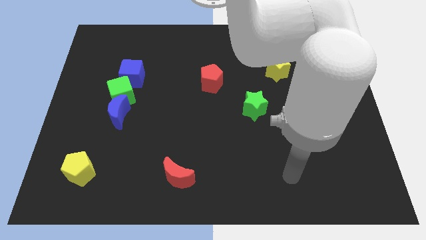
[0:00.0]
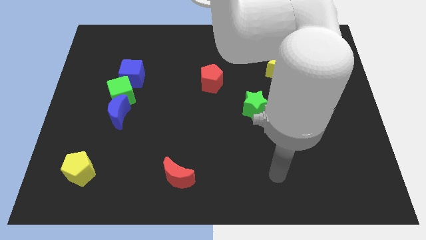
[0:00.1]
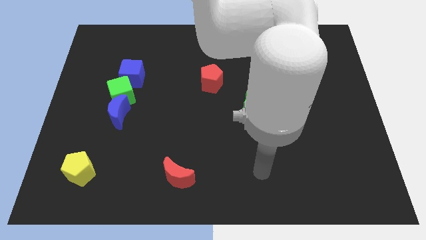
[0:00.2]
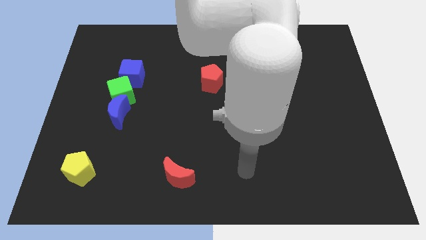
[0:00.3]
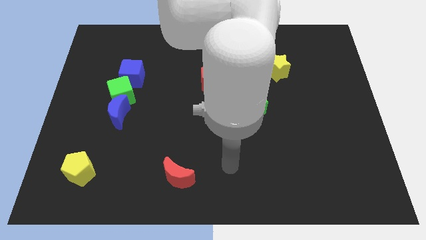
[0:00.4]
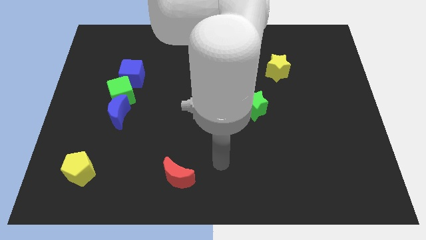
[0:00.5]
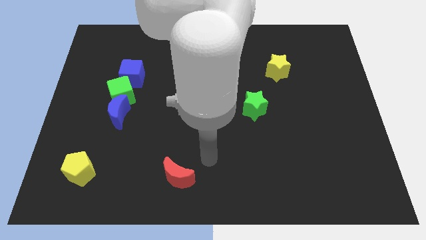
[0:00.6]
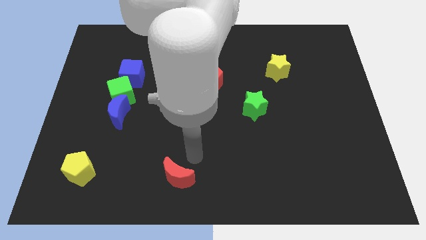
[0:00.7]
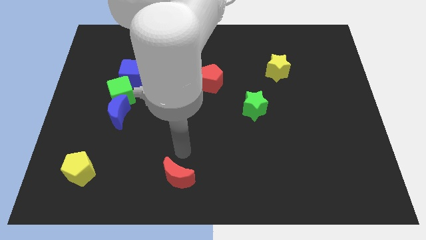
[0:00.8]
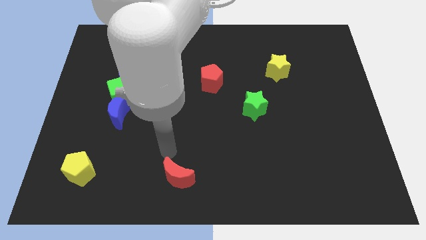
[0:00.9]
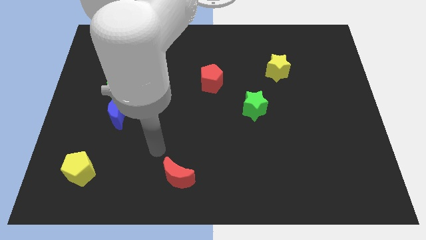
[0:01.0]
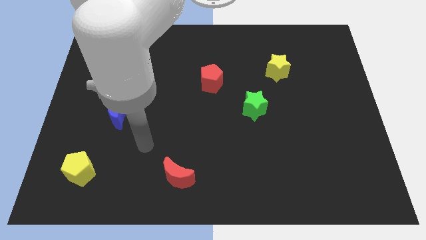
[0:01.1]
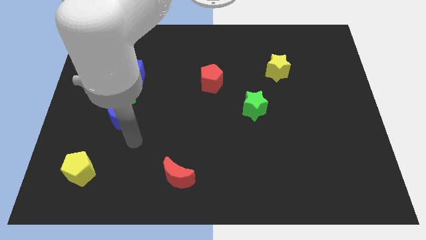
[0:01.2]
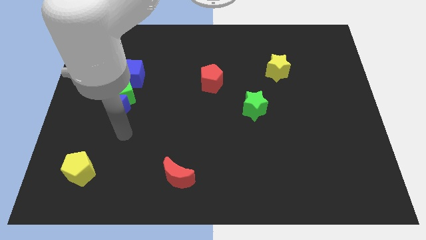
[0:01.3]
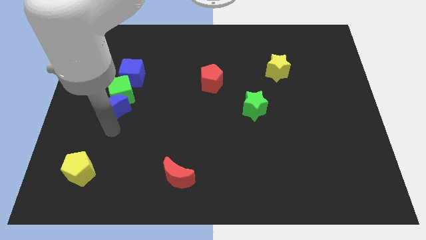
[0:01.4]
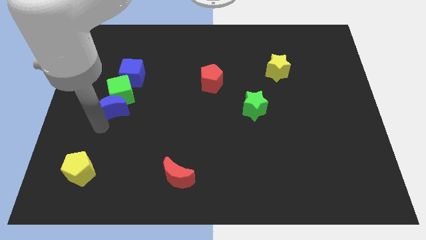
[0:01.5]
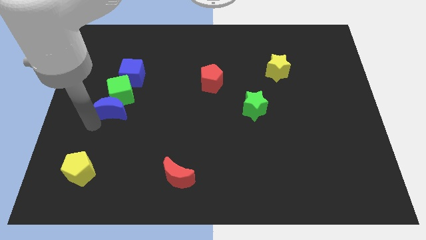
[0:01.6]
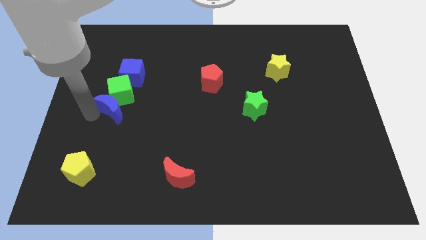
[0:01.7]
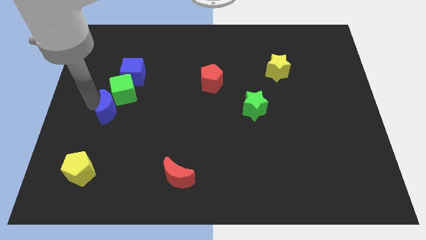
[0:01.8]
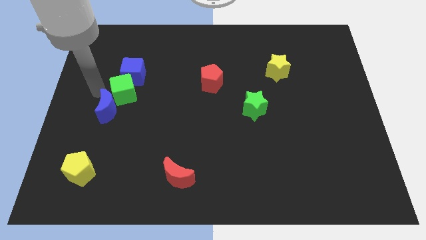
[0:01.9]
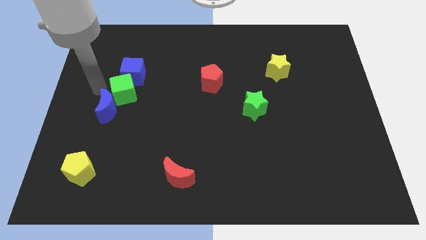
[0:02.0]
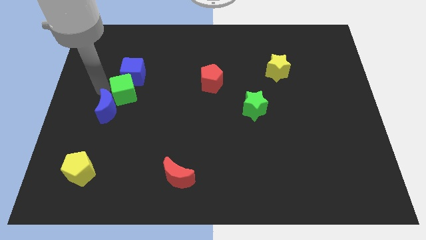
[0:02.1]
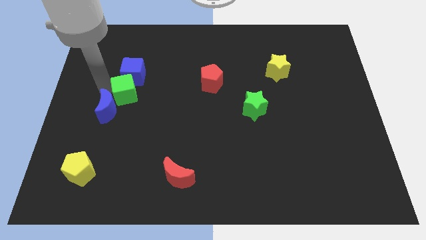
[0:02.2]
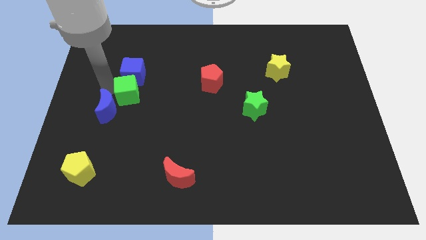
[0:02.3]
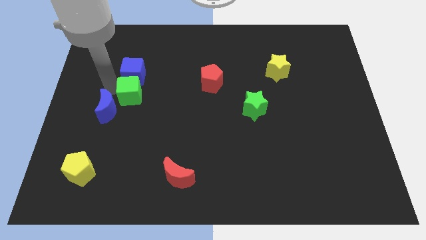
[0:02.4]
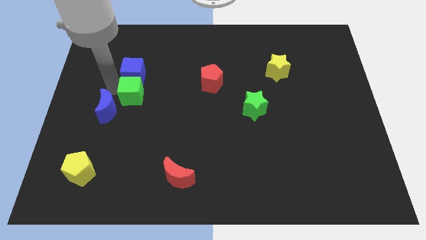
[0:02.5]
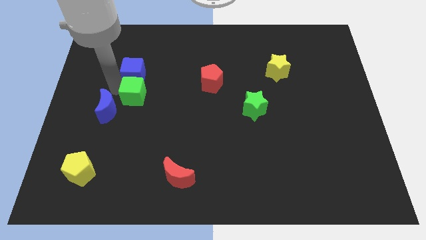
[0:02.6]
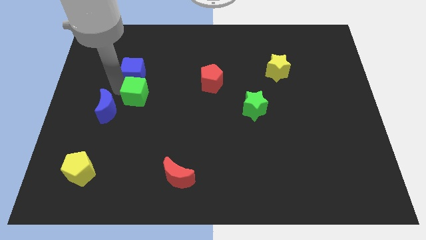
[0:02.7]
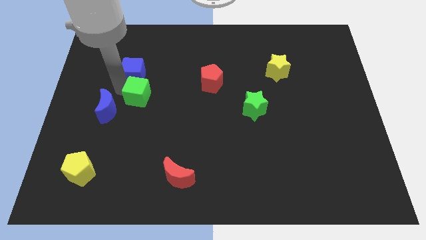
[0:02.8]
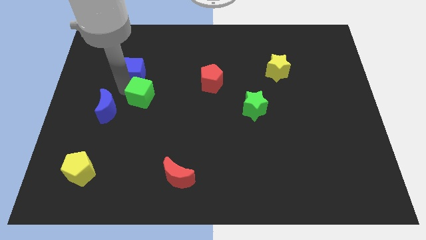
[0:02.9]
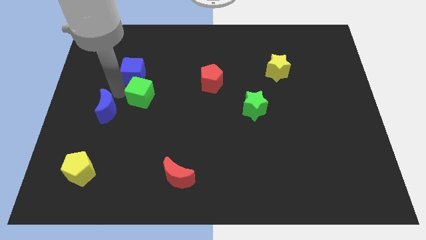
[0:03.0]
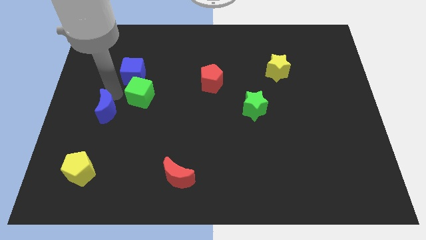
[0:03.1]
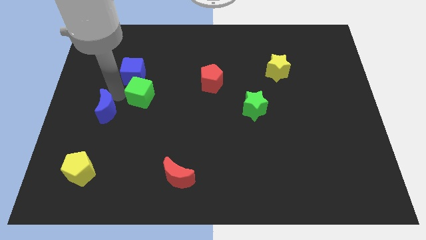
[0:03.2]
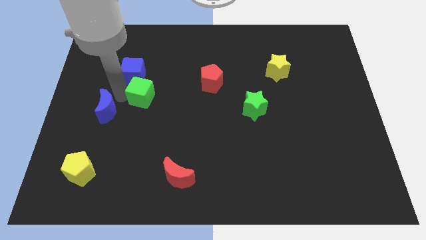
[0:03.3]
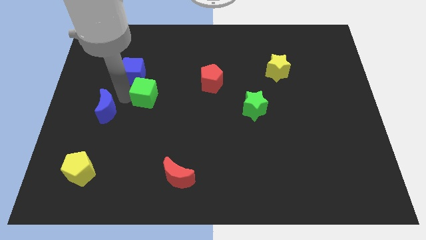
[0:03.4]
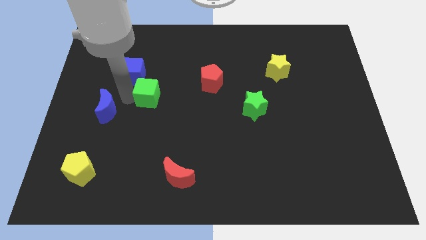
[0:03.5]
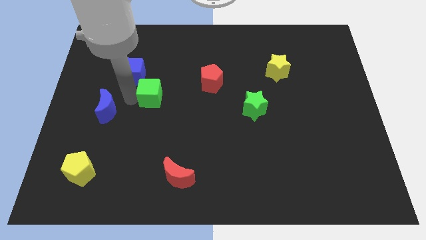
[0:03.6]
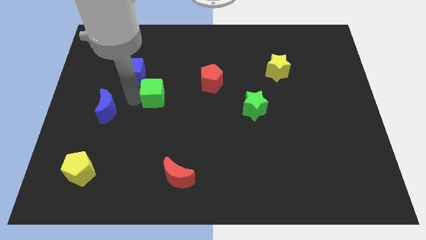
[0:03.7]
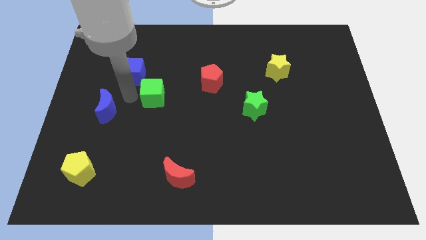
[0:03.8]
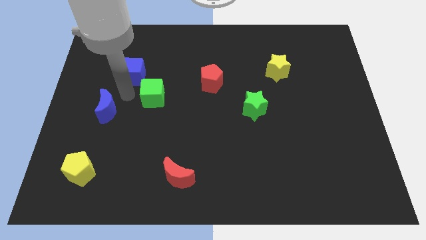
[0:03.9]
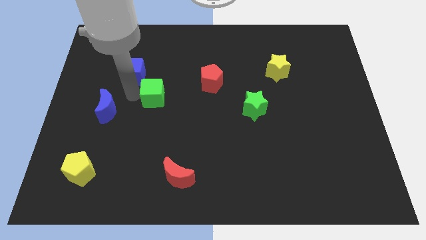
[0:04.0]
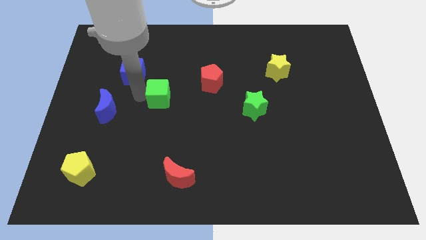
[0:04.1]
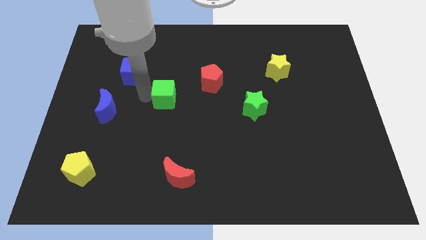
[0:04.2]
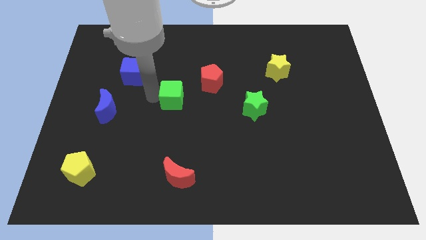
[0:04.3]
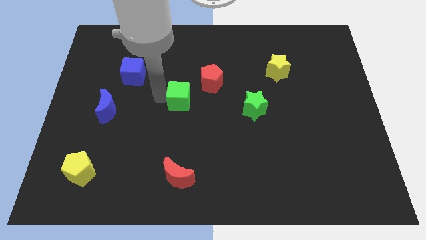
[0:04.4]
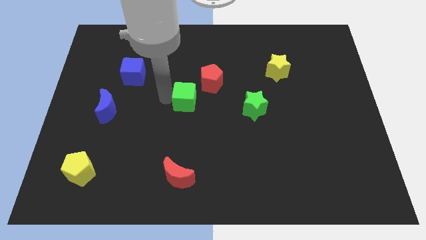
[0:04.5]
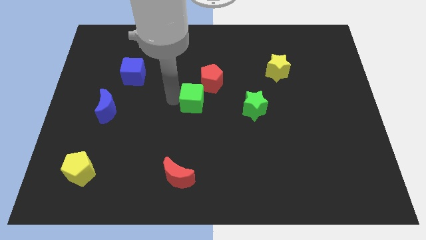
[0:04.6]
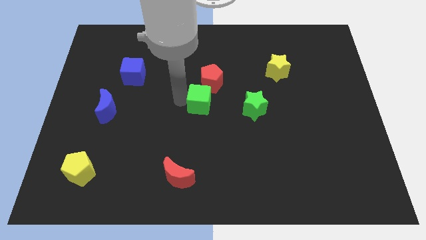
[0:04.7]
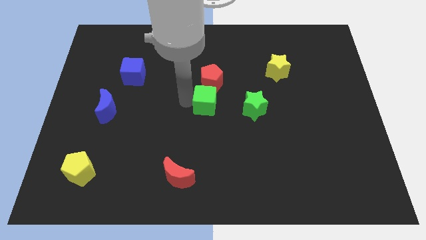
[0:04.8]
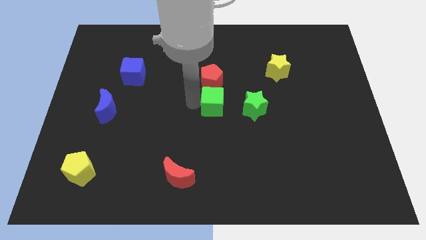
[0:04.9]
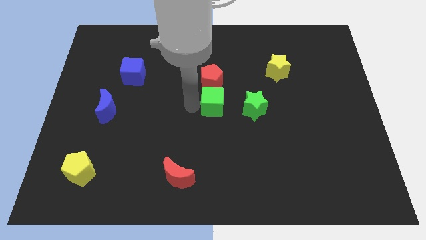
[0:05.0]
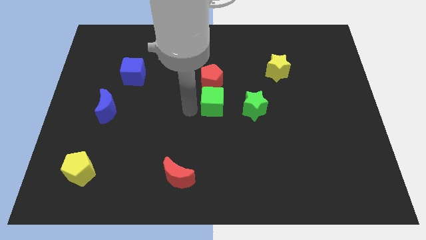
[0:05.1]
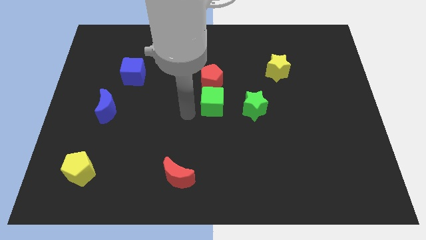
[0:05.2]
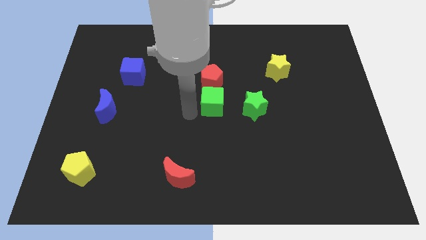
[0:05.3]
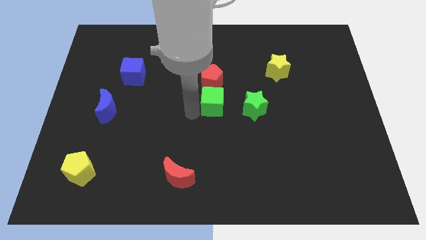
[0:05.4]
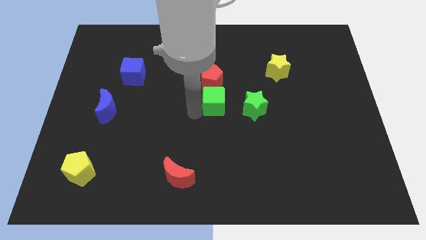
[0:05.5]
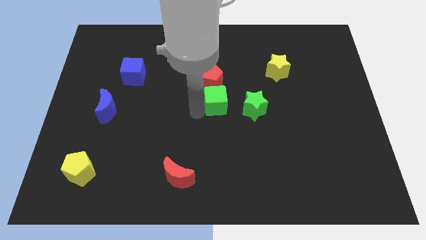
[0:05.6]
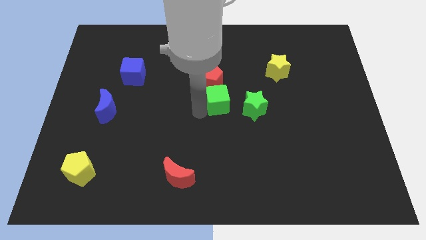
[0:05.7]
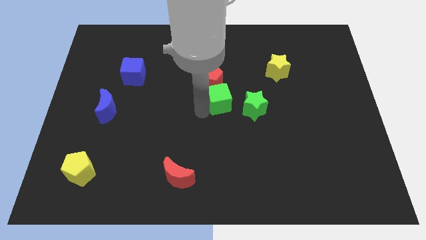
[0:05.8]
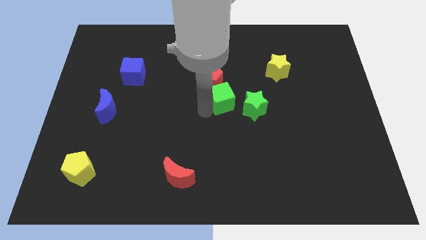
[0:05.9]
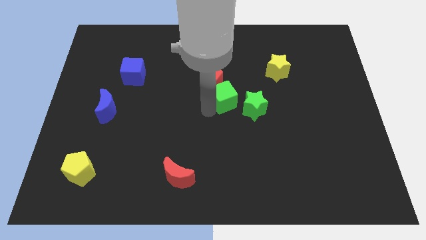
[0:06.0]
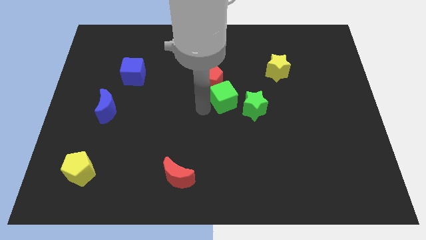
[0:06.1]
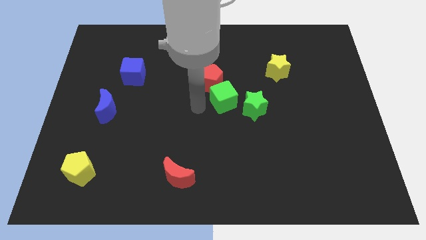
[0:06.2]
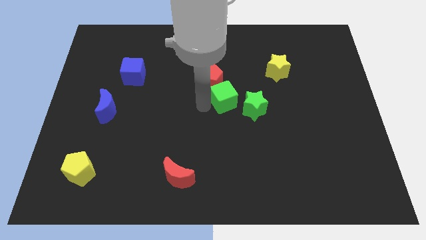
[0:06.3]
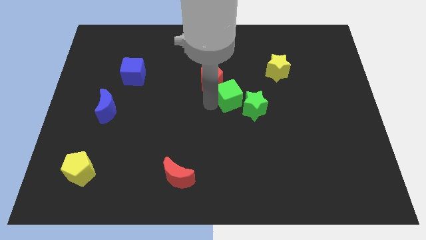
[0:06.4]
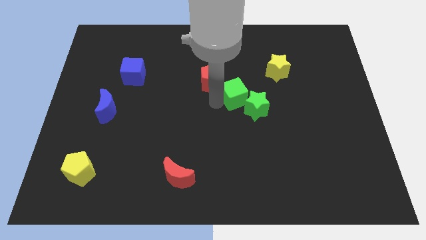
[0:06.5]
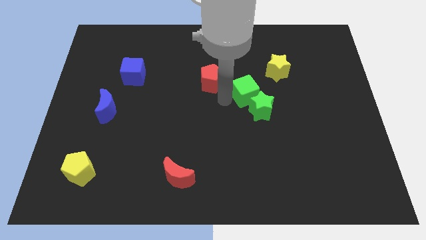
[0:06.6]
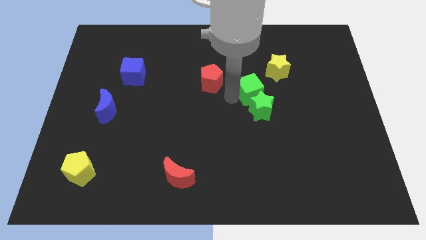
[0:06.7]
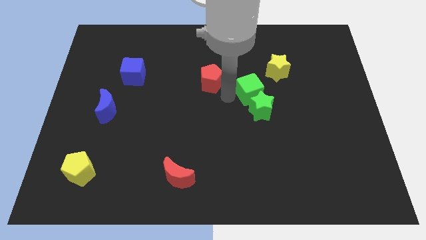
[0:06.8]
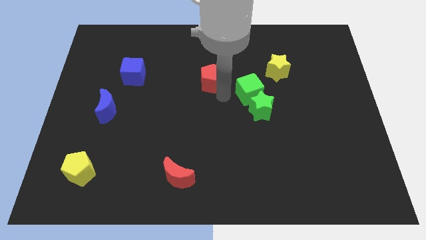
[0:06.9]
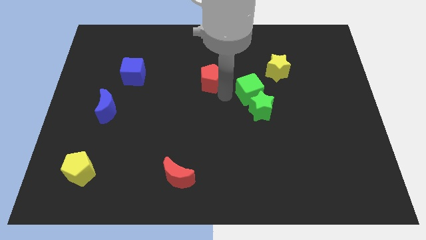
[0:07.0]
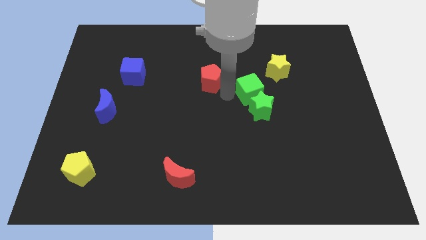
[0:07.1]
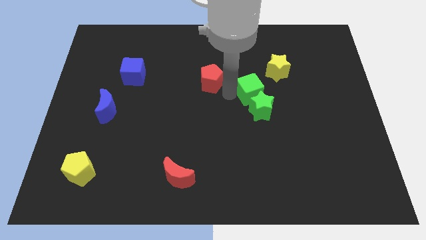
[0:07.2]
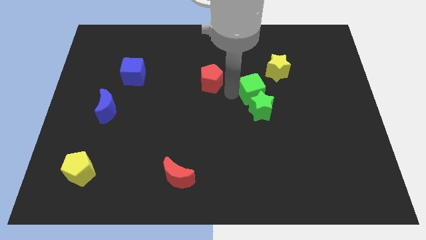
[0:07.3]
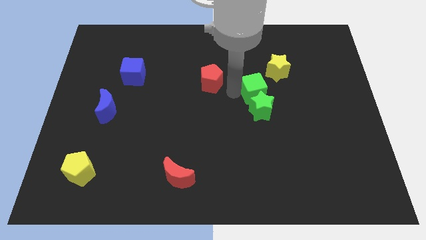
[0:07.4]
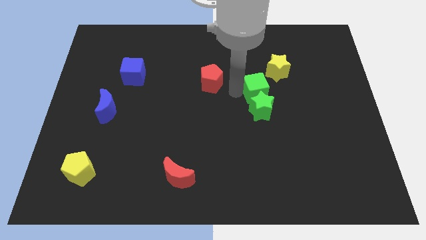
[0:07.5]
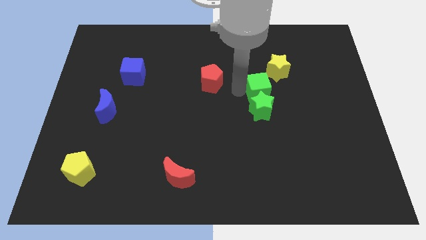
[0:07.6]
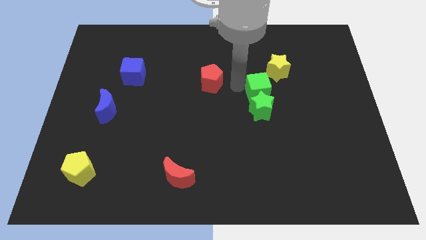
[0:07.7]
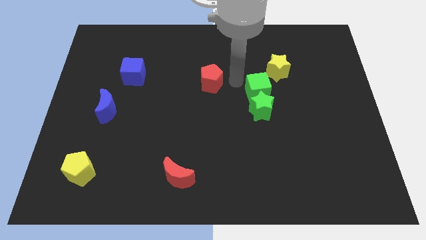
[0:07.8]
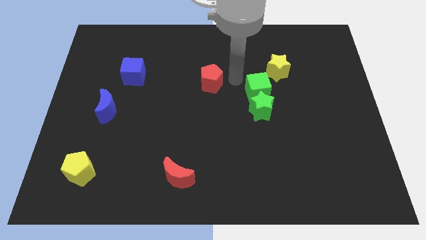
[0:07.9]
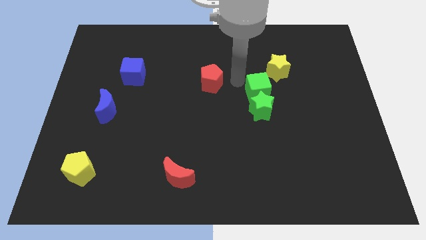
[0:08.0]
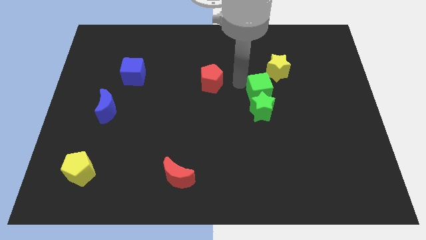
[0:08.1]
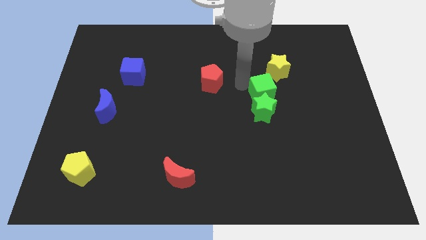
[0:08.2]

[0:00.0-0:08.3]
slide the green cube below the yellow star
